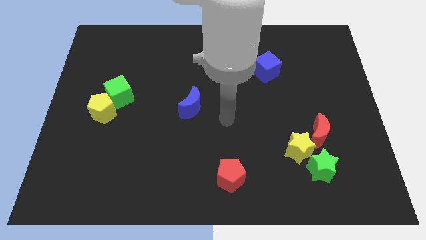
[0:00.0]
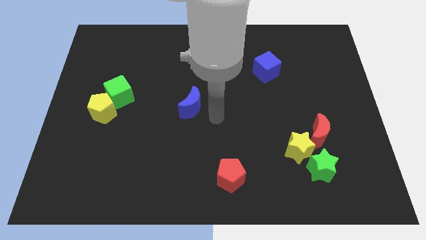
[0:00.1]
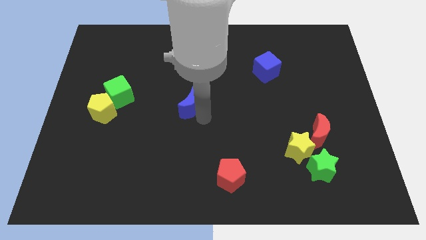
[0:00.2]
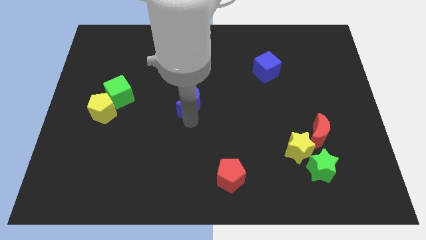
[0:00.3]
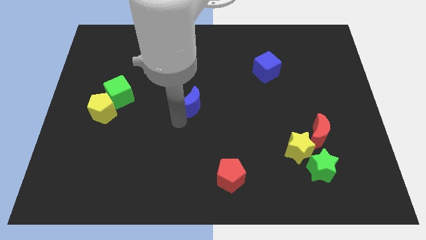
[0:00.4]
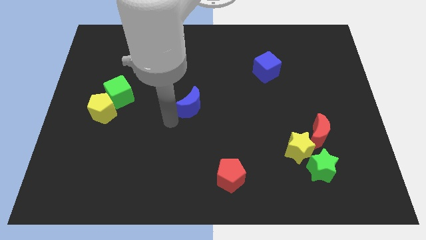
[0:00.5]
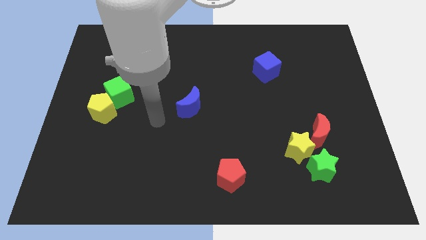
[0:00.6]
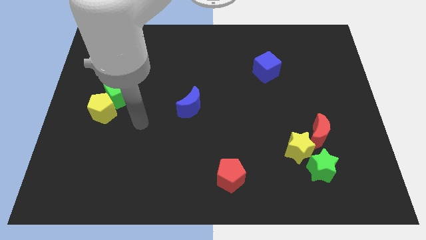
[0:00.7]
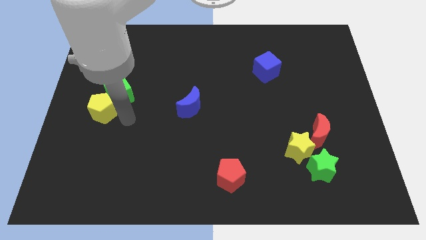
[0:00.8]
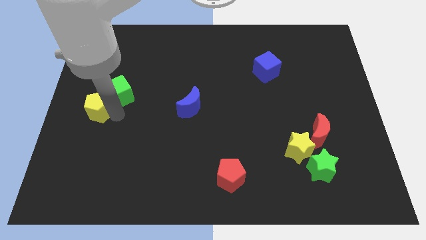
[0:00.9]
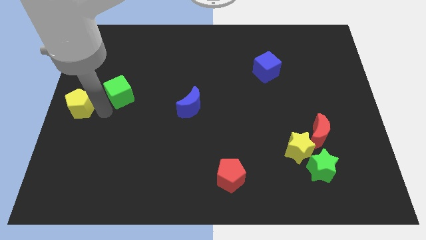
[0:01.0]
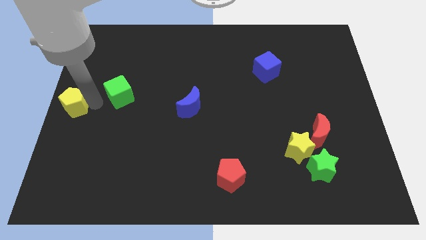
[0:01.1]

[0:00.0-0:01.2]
move the green cube away from the yellow pentagon

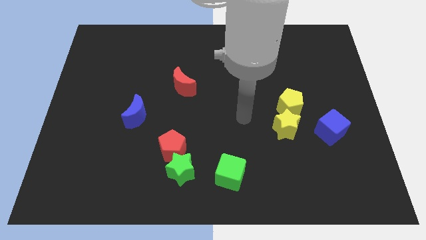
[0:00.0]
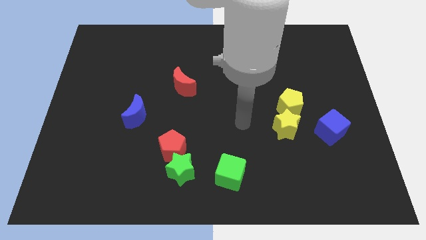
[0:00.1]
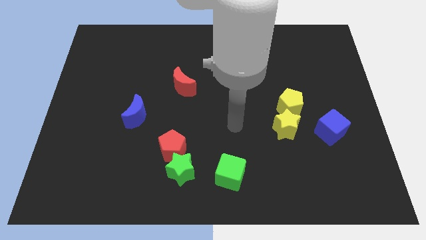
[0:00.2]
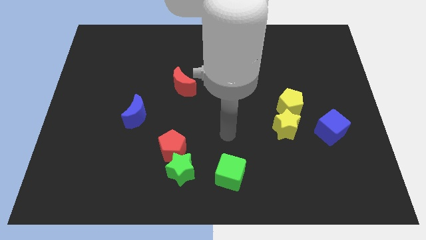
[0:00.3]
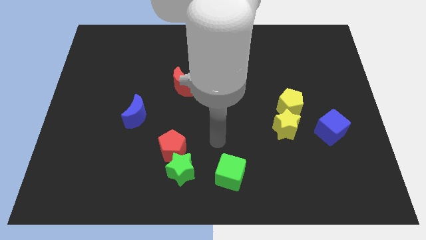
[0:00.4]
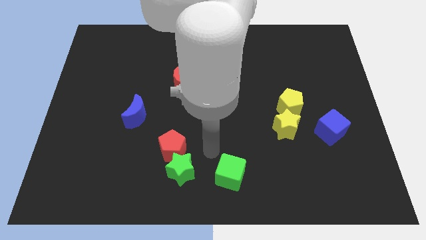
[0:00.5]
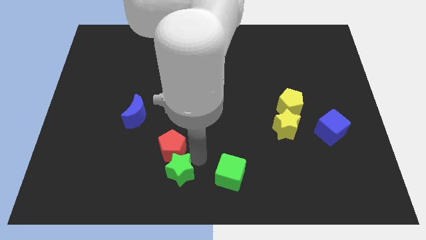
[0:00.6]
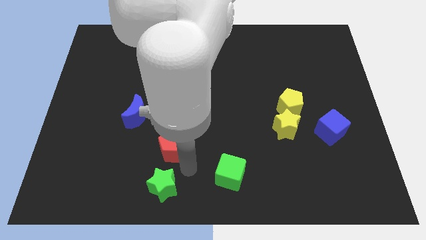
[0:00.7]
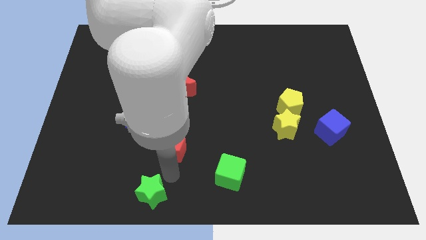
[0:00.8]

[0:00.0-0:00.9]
pull the red pentagon apart from the green star

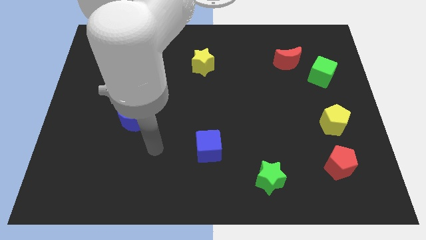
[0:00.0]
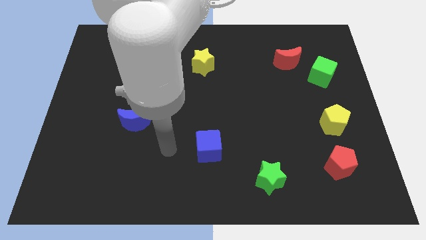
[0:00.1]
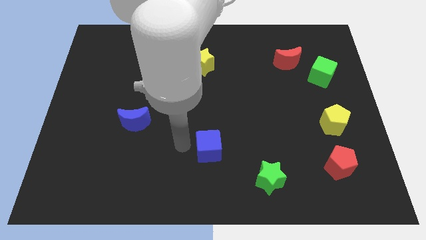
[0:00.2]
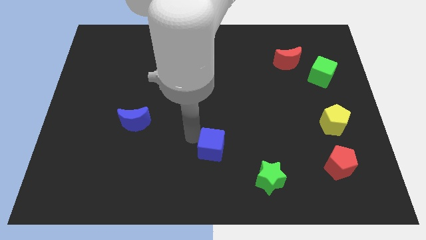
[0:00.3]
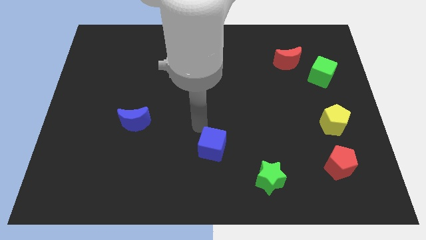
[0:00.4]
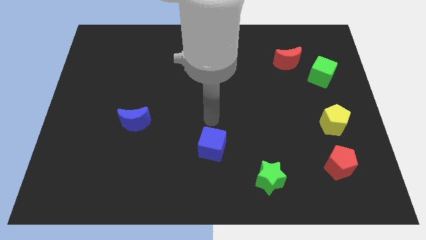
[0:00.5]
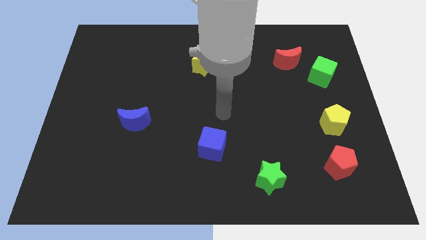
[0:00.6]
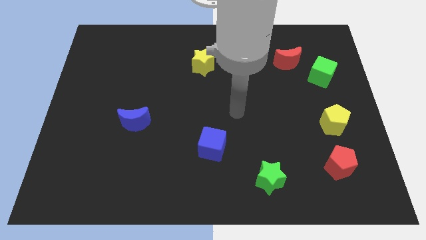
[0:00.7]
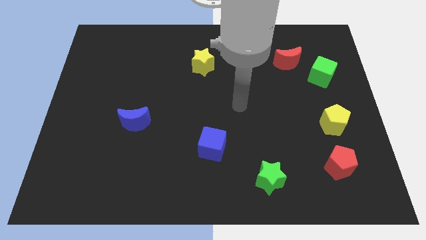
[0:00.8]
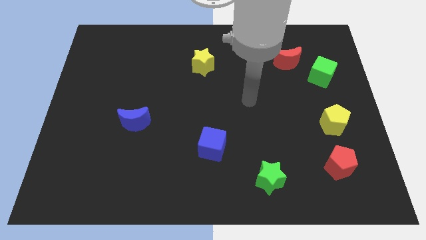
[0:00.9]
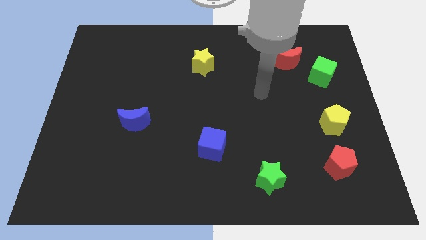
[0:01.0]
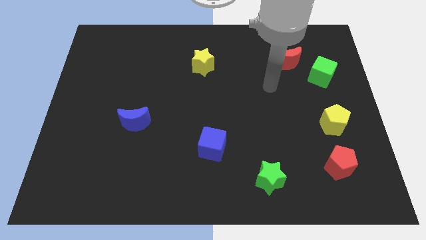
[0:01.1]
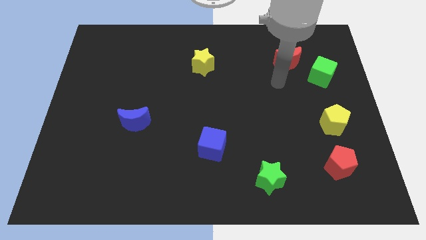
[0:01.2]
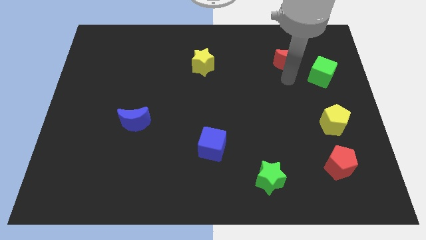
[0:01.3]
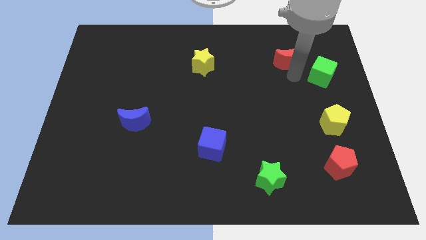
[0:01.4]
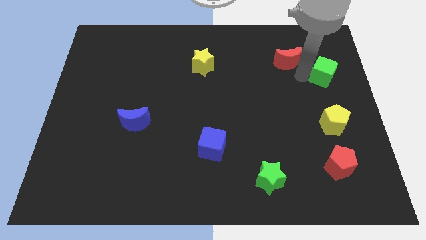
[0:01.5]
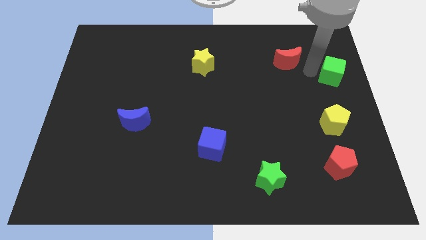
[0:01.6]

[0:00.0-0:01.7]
move the red moon away from the green cube

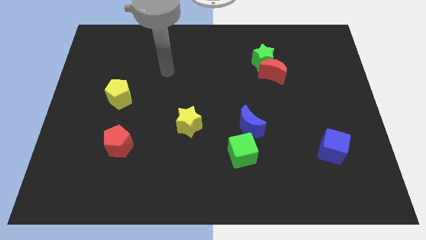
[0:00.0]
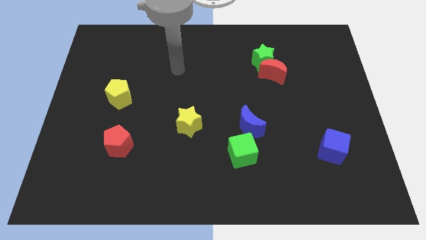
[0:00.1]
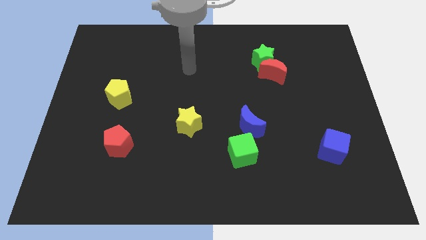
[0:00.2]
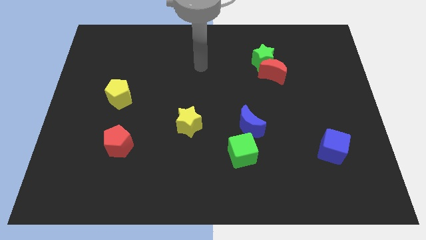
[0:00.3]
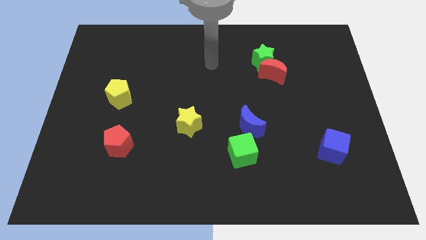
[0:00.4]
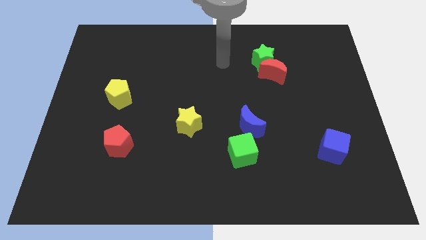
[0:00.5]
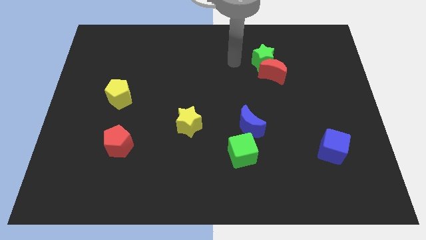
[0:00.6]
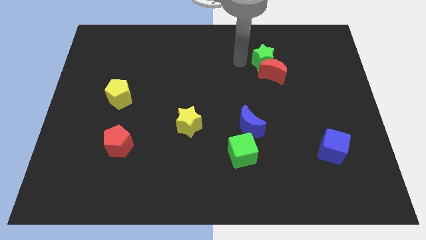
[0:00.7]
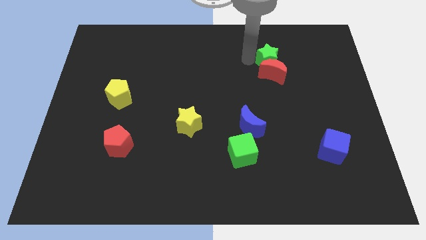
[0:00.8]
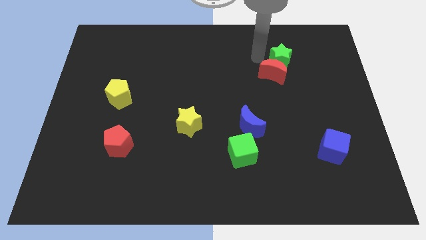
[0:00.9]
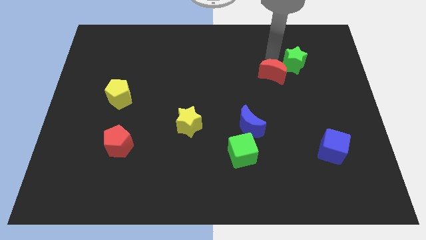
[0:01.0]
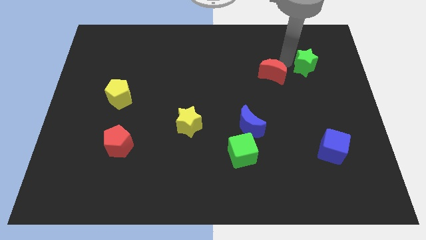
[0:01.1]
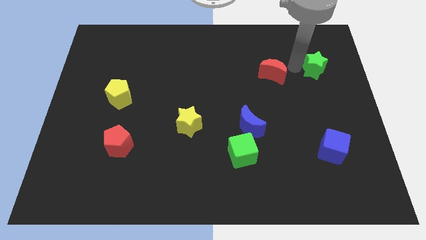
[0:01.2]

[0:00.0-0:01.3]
pull the red moon apart from the green star

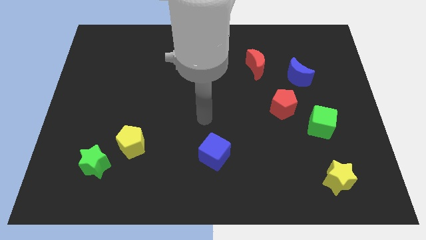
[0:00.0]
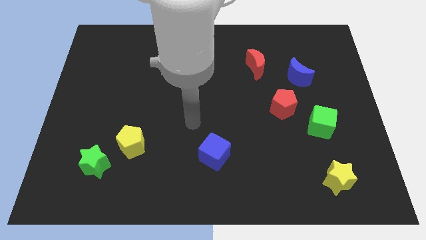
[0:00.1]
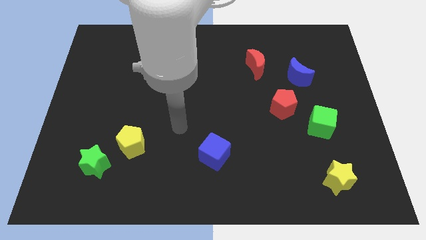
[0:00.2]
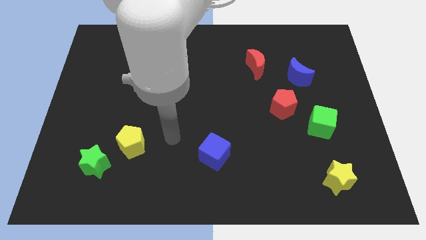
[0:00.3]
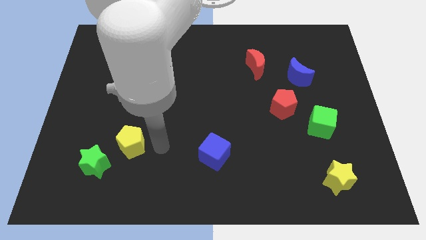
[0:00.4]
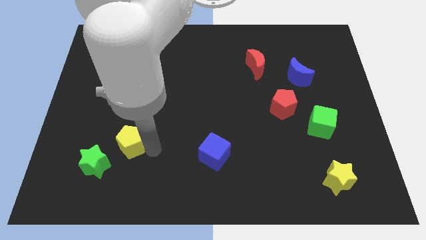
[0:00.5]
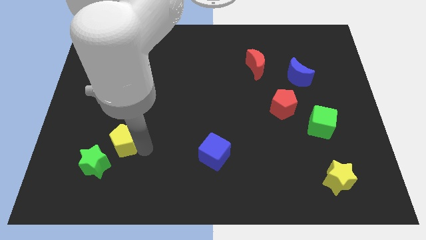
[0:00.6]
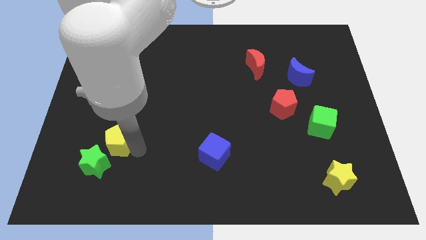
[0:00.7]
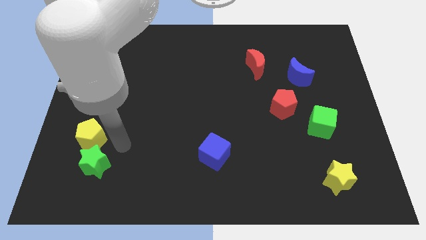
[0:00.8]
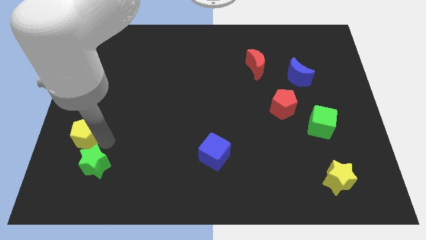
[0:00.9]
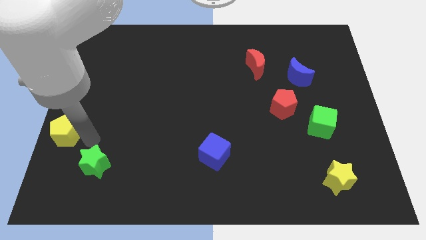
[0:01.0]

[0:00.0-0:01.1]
move the green star away from the yellow pentagon

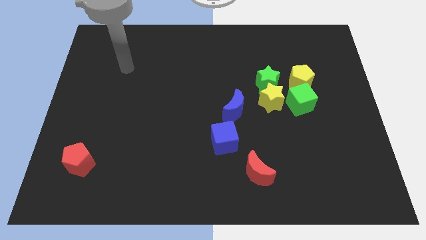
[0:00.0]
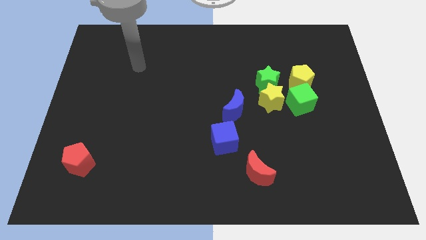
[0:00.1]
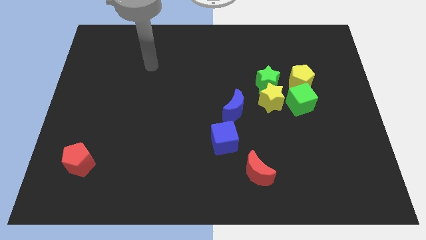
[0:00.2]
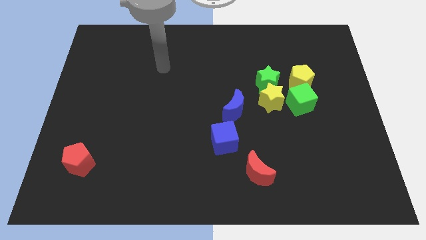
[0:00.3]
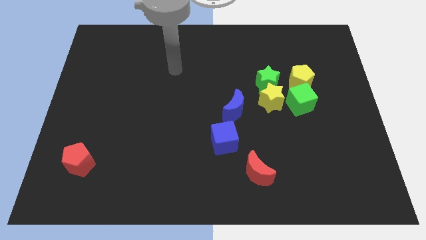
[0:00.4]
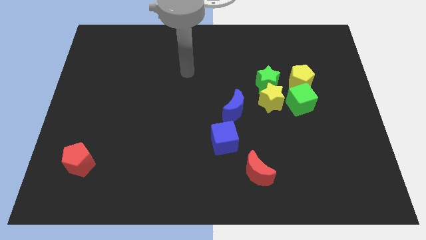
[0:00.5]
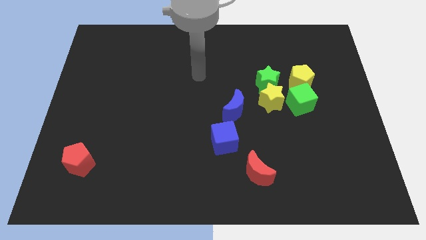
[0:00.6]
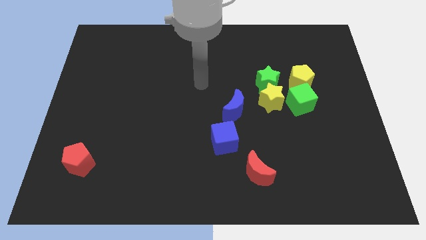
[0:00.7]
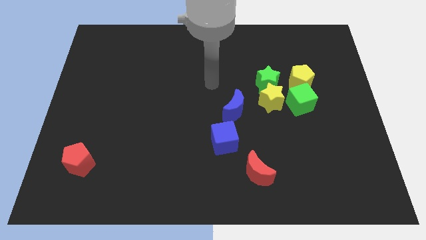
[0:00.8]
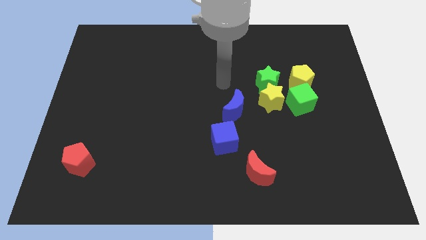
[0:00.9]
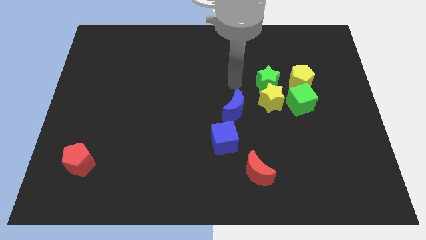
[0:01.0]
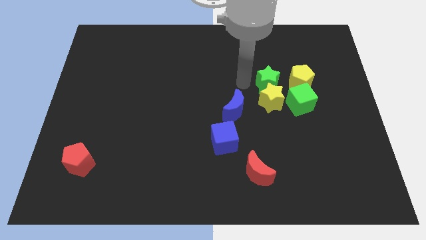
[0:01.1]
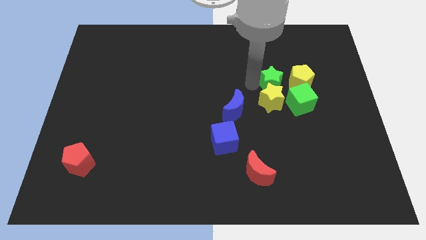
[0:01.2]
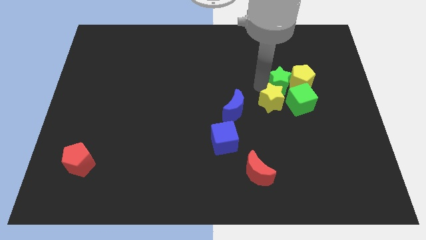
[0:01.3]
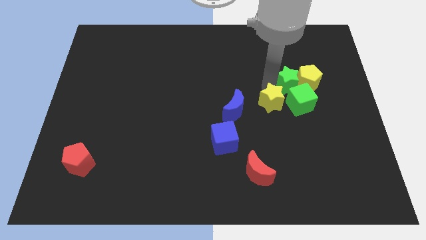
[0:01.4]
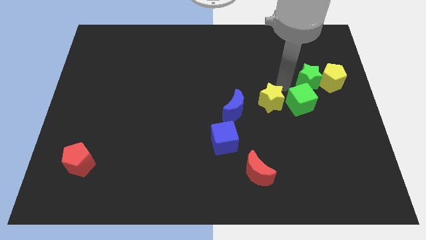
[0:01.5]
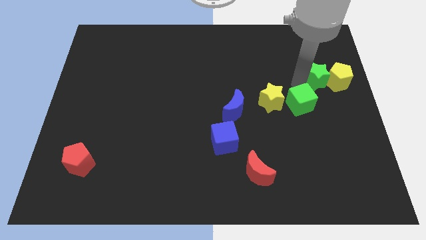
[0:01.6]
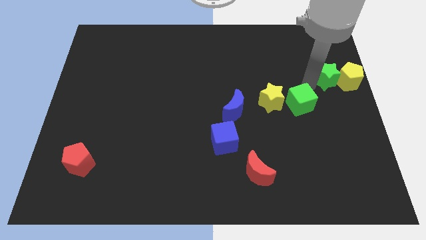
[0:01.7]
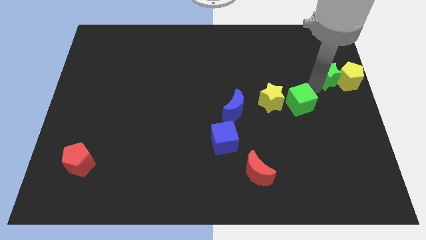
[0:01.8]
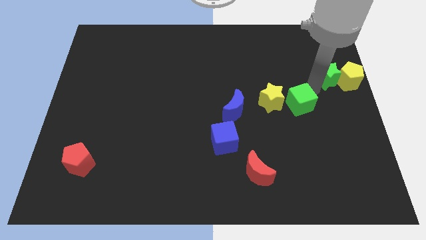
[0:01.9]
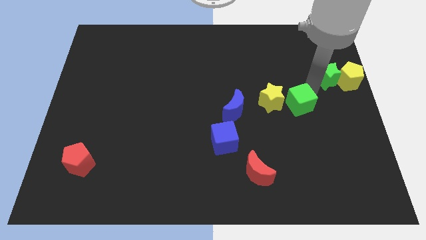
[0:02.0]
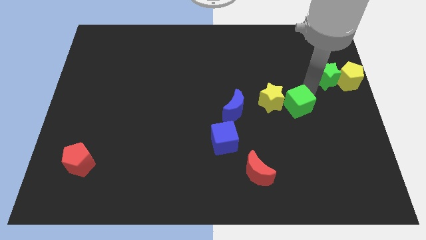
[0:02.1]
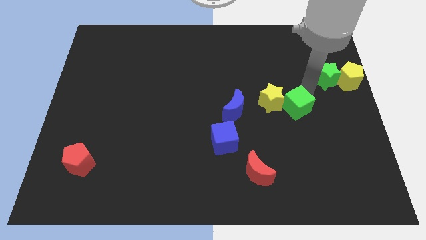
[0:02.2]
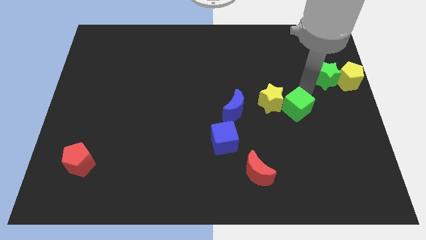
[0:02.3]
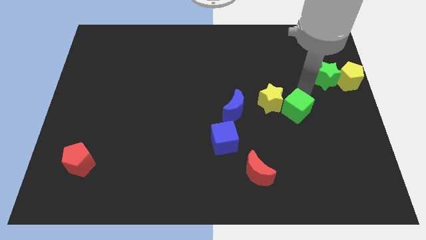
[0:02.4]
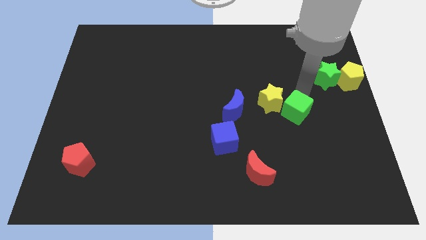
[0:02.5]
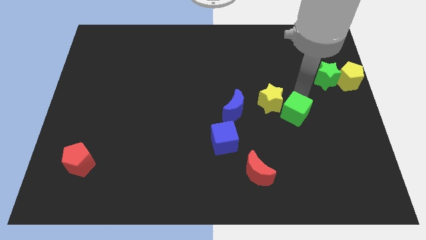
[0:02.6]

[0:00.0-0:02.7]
move the green cube away from the yellow pentagon, yellow star, and green star

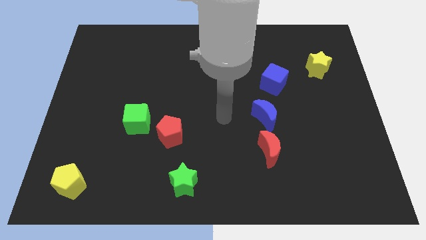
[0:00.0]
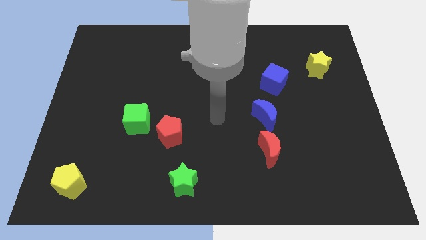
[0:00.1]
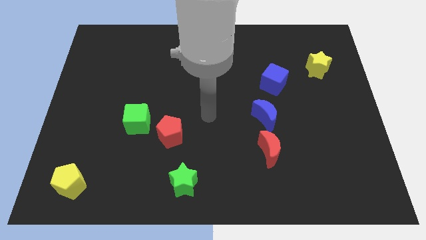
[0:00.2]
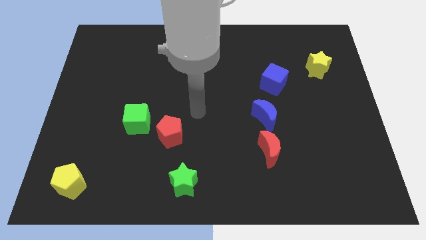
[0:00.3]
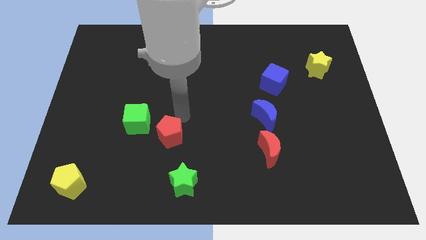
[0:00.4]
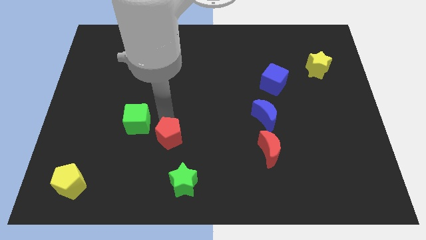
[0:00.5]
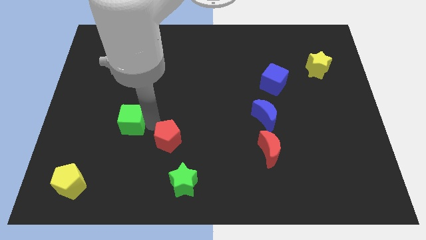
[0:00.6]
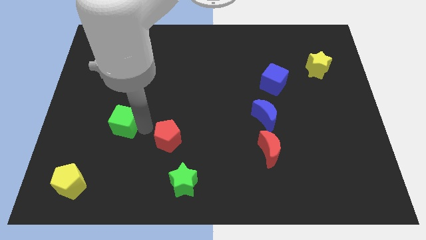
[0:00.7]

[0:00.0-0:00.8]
move the red pentagon away from the green cube
